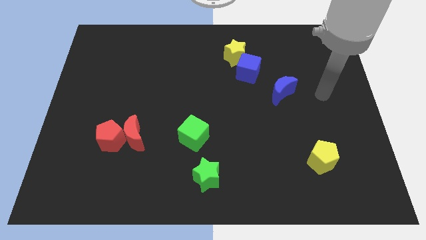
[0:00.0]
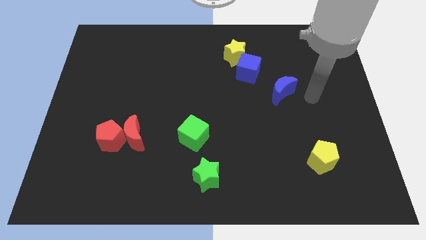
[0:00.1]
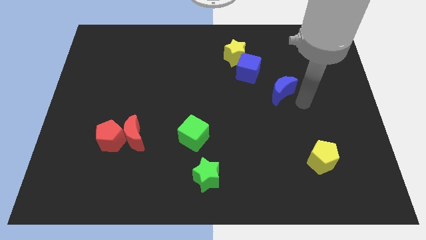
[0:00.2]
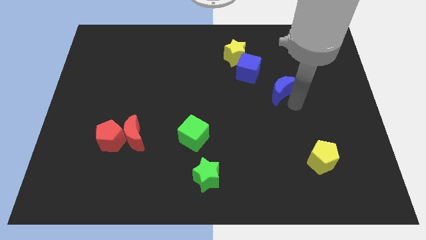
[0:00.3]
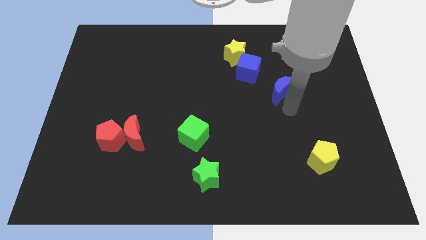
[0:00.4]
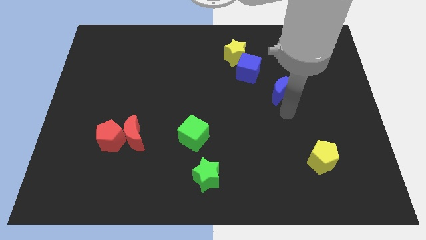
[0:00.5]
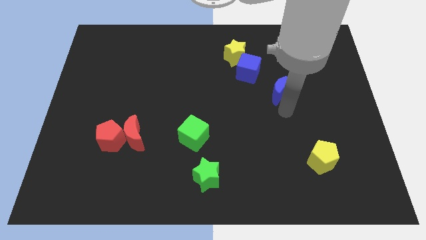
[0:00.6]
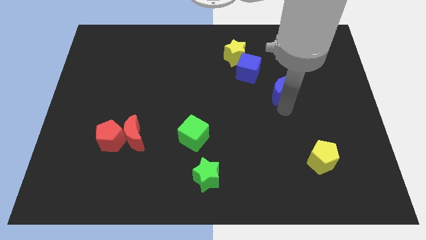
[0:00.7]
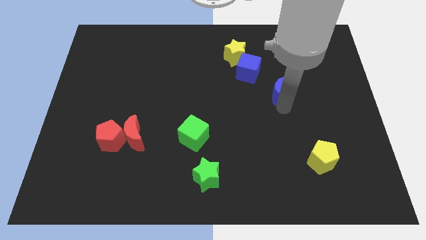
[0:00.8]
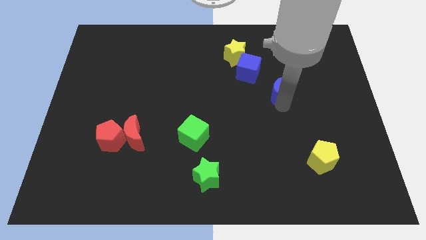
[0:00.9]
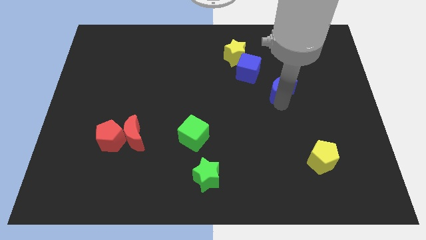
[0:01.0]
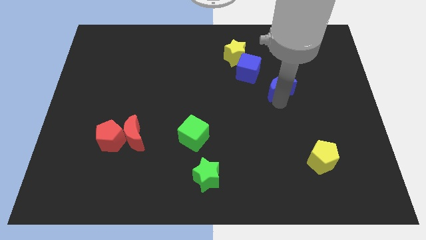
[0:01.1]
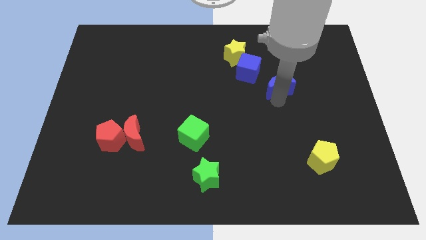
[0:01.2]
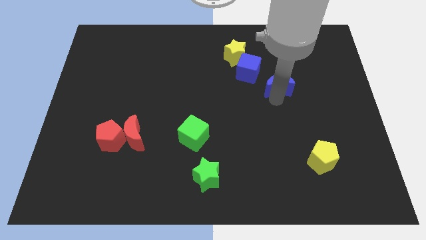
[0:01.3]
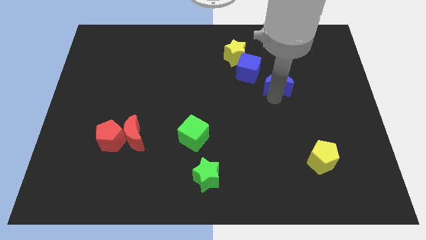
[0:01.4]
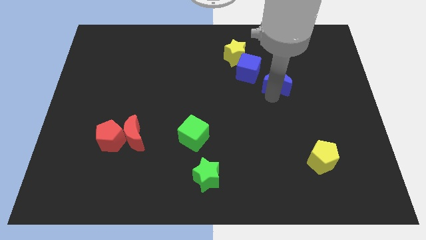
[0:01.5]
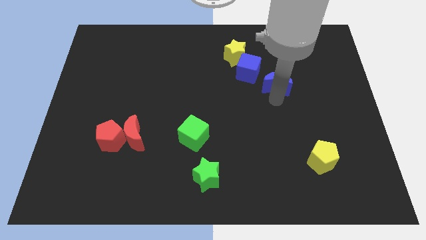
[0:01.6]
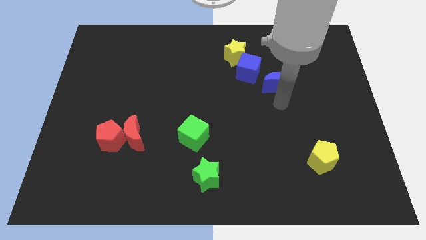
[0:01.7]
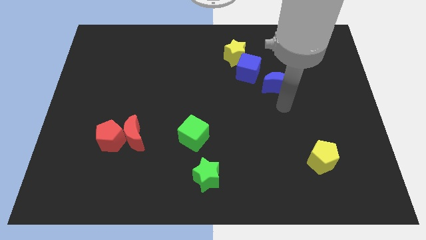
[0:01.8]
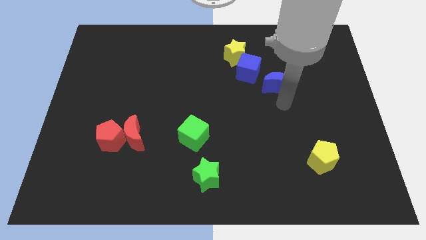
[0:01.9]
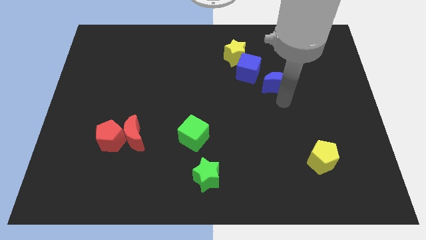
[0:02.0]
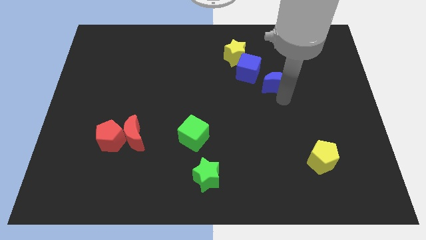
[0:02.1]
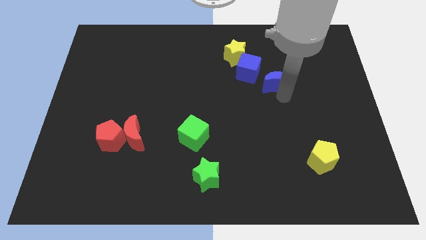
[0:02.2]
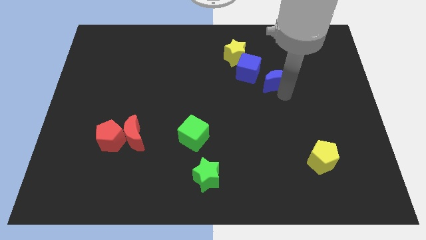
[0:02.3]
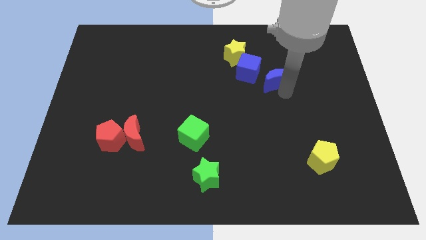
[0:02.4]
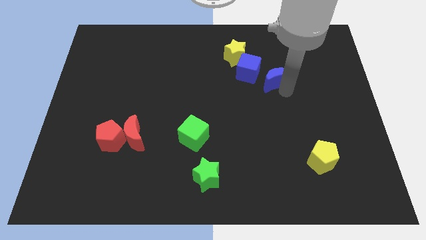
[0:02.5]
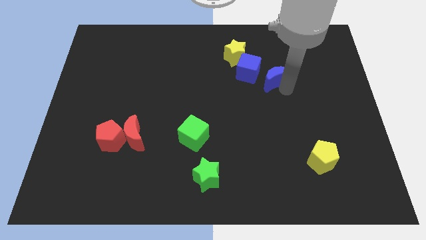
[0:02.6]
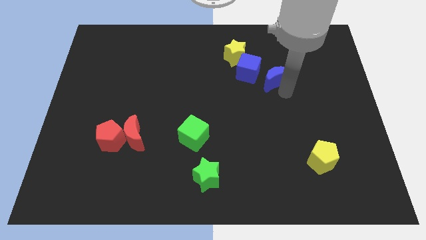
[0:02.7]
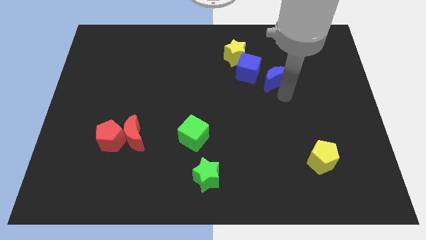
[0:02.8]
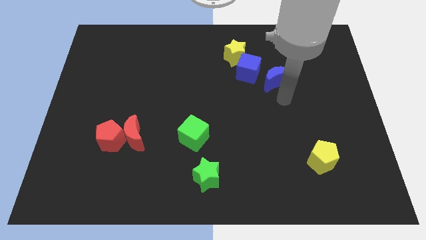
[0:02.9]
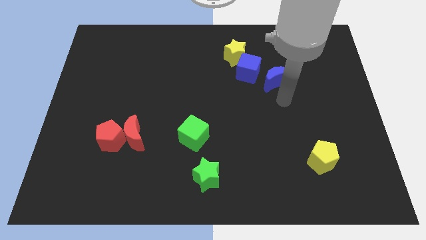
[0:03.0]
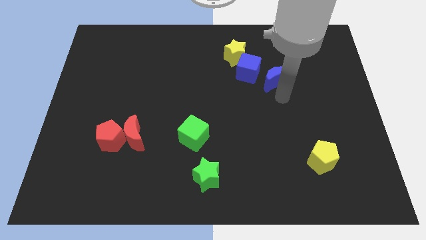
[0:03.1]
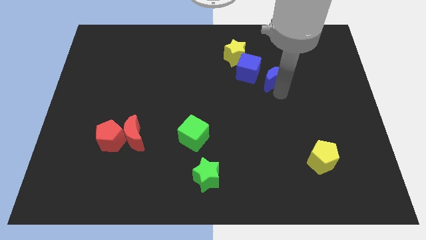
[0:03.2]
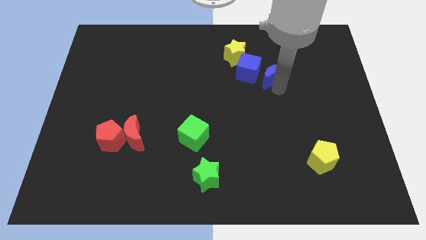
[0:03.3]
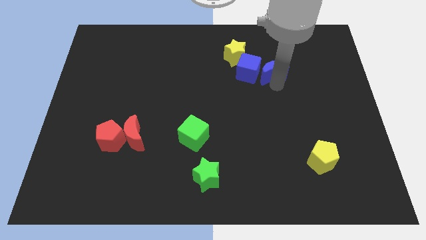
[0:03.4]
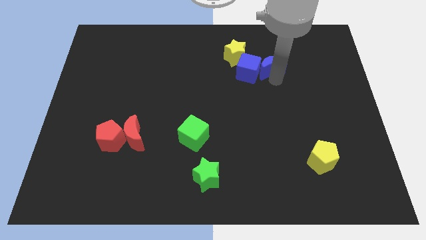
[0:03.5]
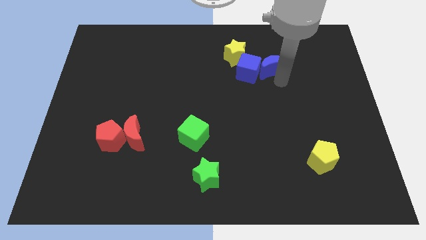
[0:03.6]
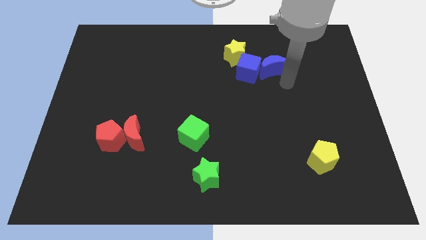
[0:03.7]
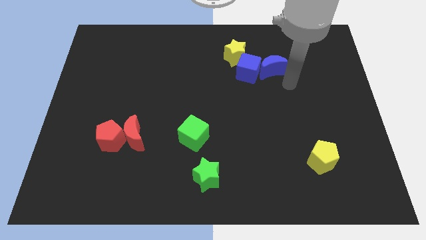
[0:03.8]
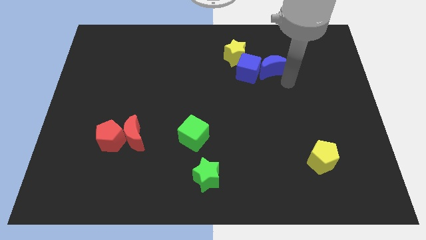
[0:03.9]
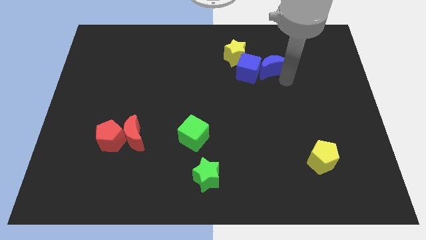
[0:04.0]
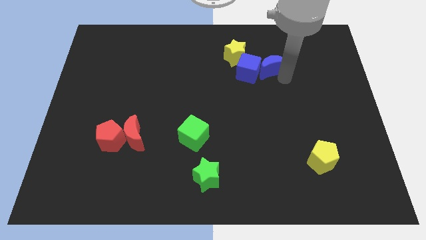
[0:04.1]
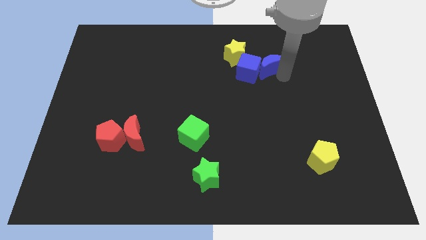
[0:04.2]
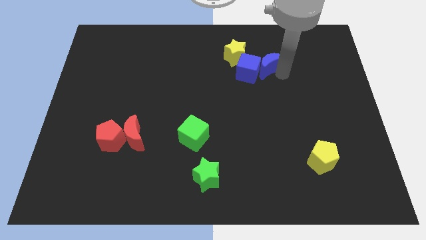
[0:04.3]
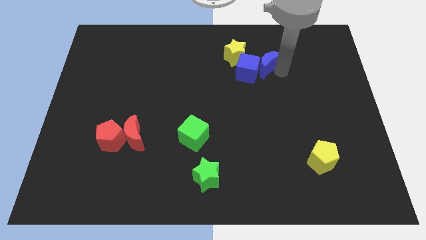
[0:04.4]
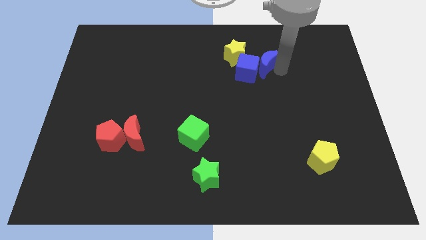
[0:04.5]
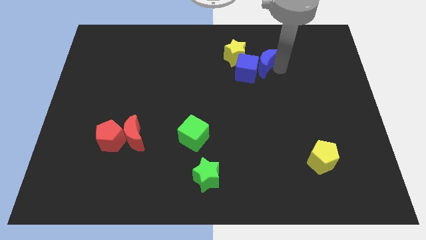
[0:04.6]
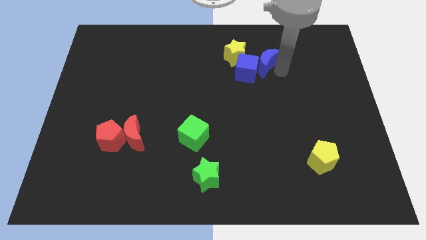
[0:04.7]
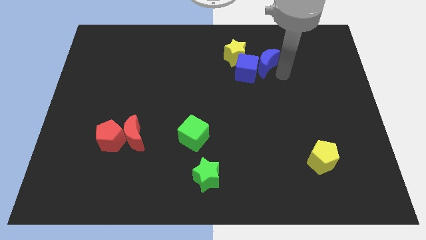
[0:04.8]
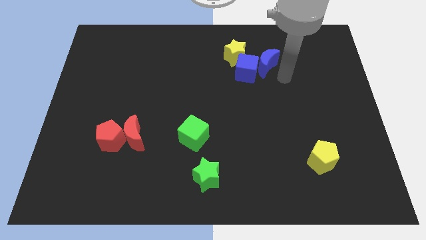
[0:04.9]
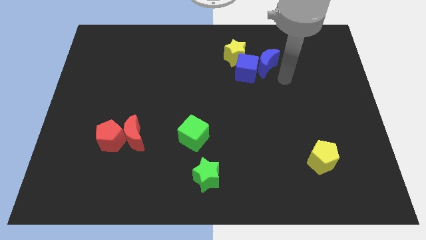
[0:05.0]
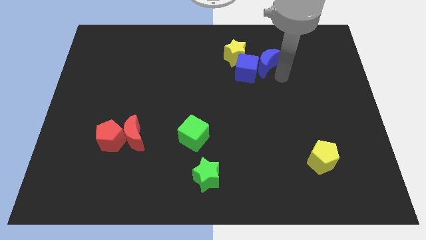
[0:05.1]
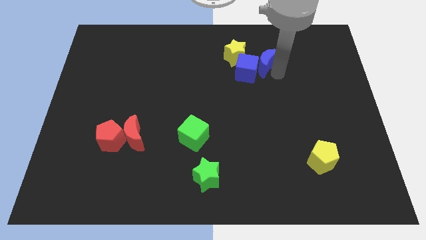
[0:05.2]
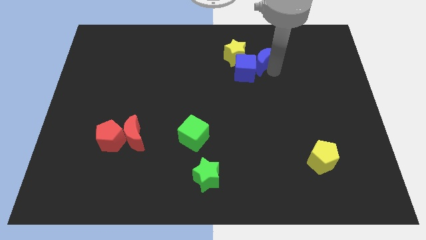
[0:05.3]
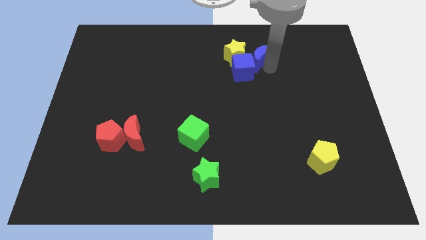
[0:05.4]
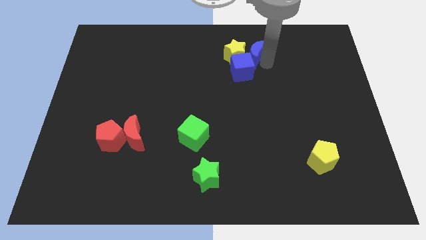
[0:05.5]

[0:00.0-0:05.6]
put the blue moon next to the yellow star

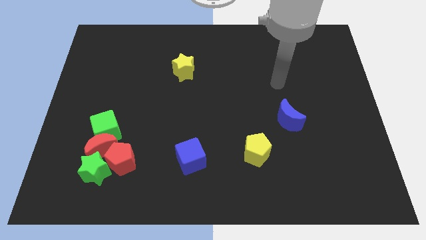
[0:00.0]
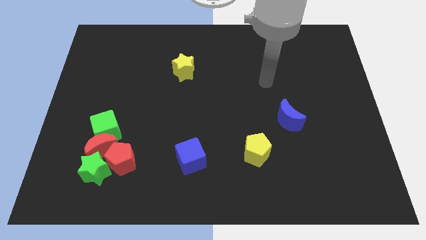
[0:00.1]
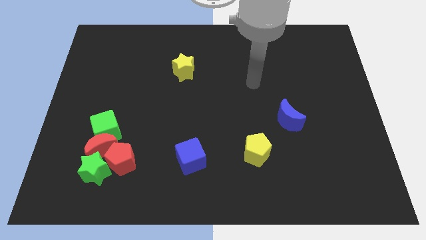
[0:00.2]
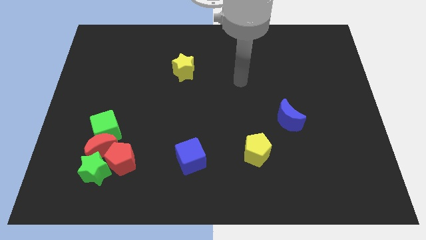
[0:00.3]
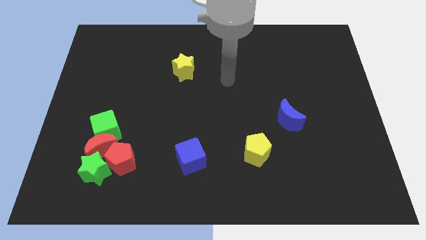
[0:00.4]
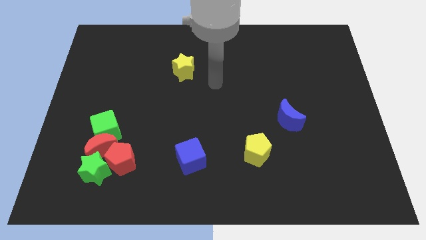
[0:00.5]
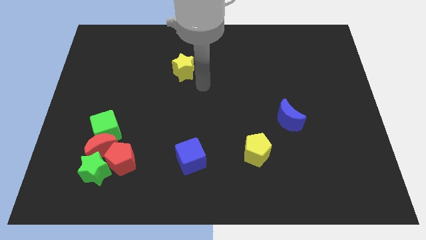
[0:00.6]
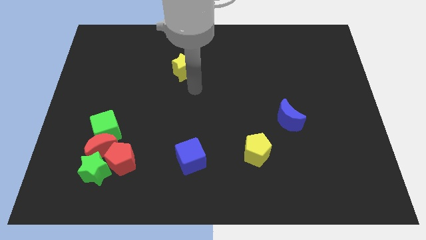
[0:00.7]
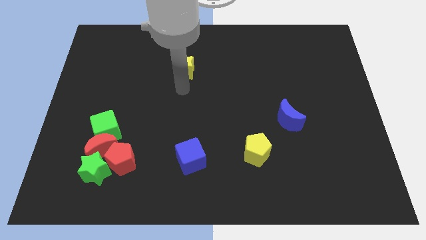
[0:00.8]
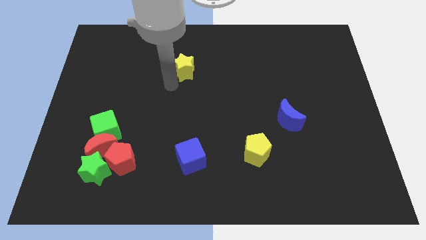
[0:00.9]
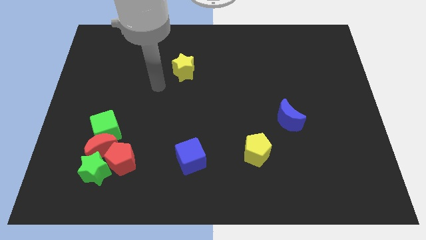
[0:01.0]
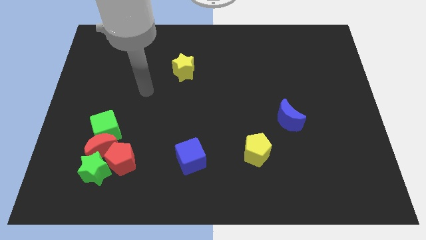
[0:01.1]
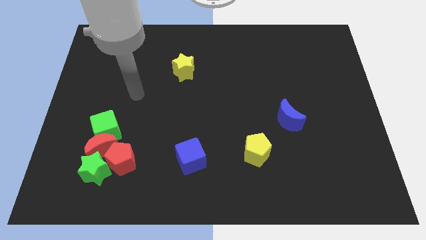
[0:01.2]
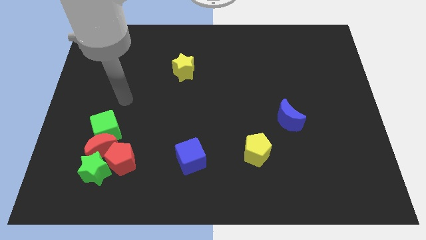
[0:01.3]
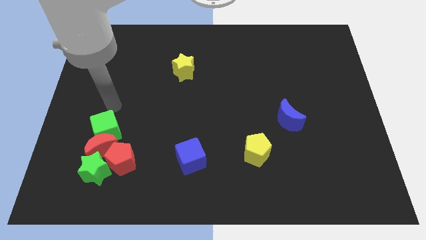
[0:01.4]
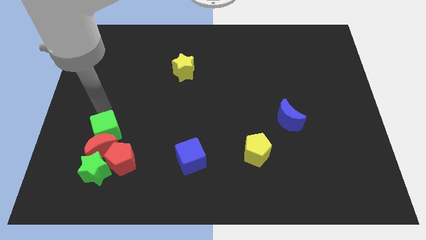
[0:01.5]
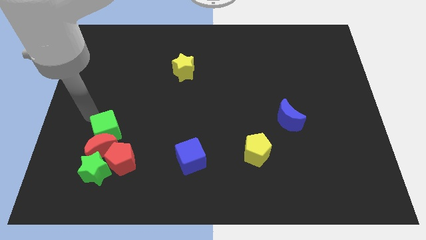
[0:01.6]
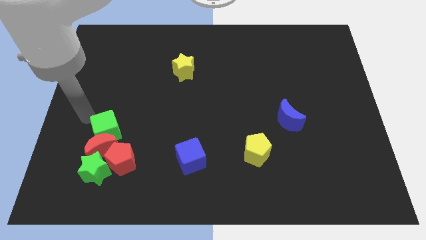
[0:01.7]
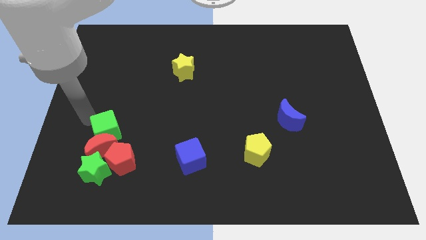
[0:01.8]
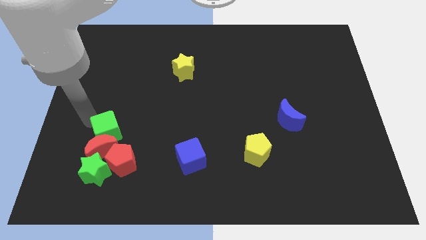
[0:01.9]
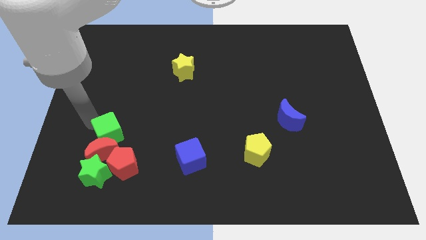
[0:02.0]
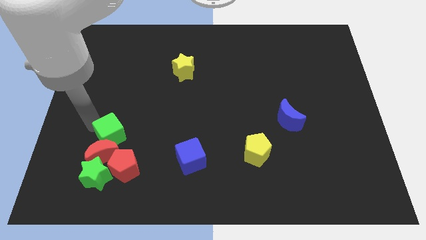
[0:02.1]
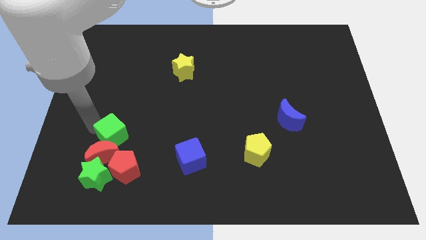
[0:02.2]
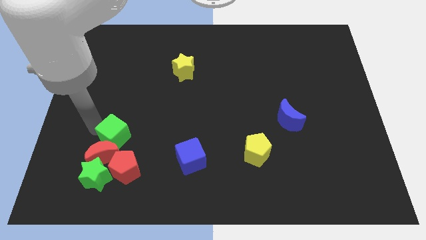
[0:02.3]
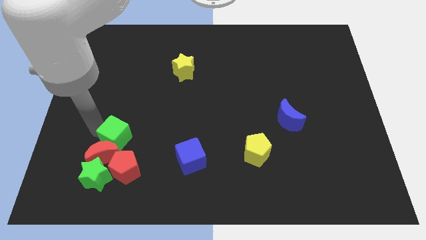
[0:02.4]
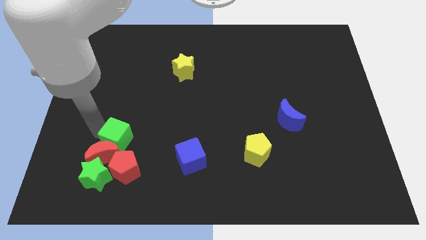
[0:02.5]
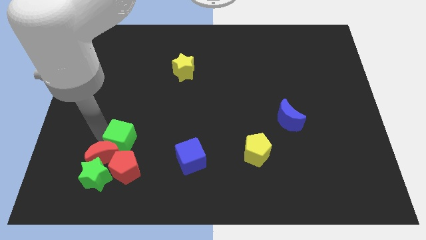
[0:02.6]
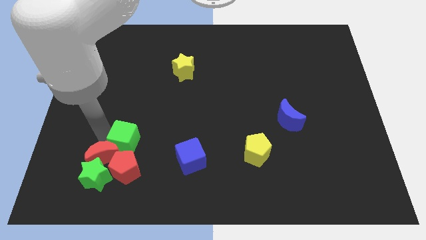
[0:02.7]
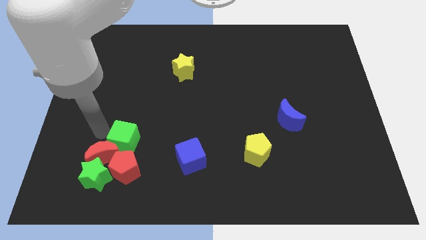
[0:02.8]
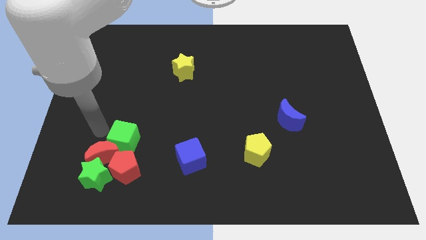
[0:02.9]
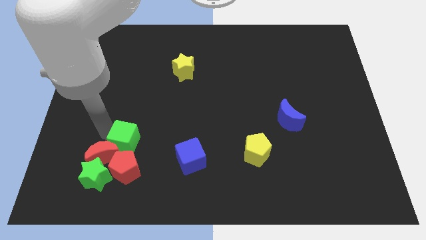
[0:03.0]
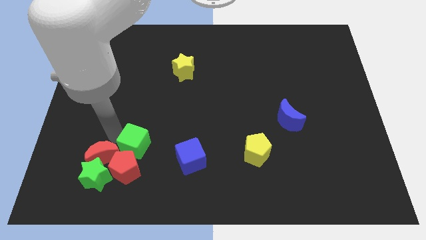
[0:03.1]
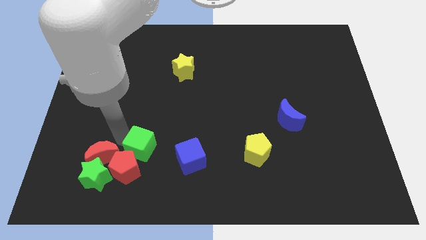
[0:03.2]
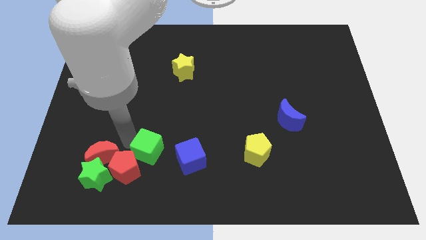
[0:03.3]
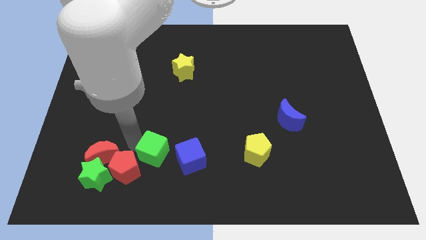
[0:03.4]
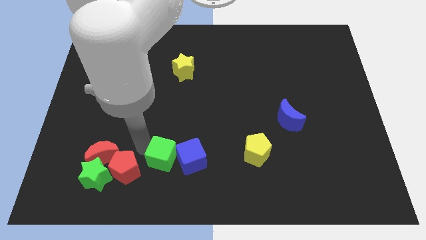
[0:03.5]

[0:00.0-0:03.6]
push the green cube next to the blue cube
